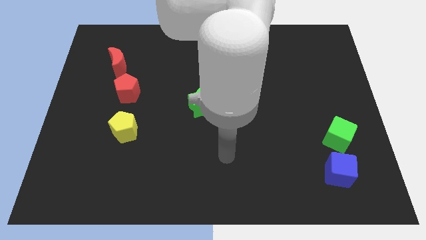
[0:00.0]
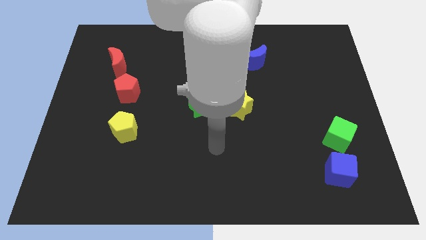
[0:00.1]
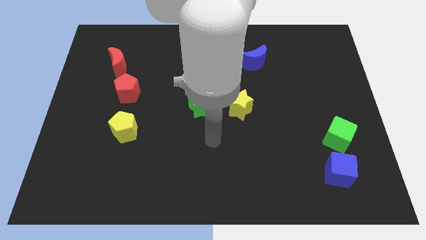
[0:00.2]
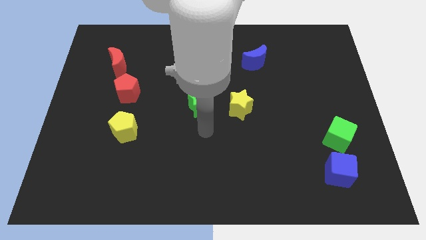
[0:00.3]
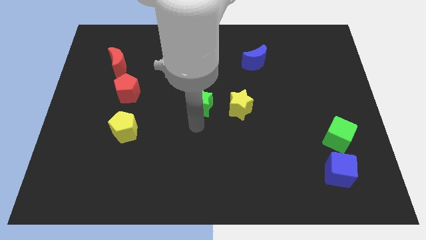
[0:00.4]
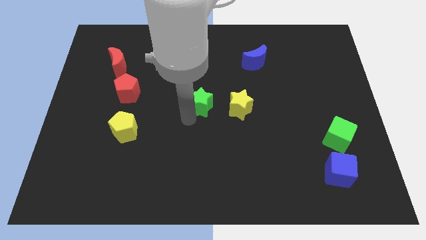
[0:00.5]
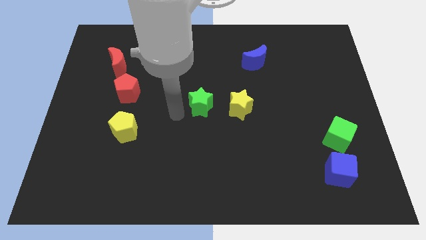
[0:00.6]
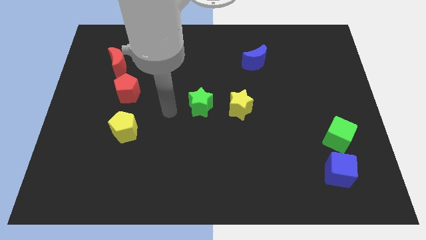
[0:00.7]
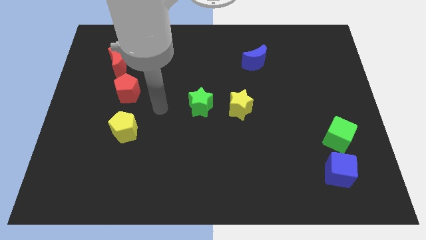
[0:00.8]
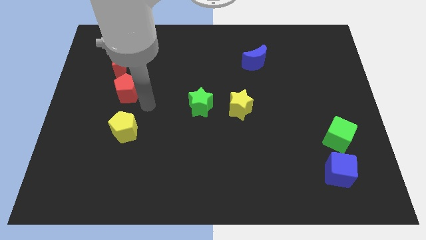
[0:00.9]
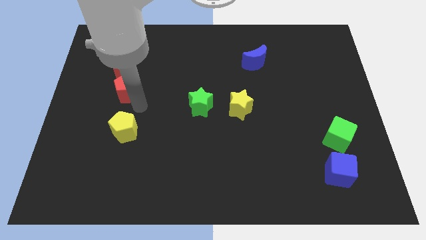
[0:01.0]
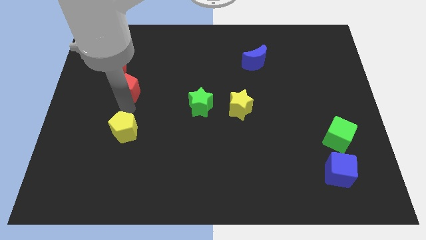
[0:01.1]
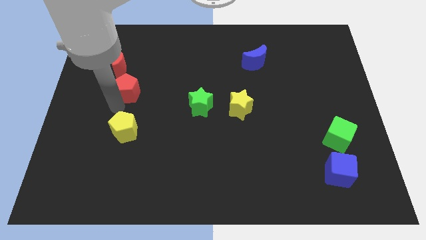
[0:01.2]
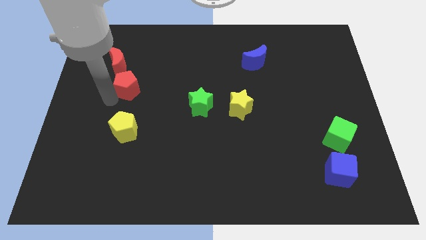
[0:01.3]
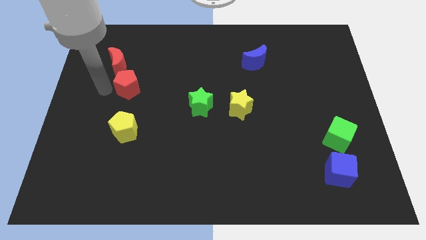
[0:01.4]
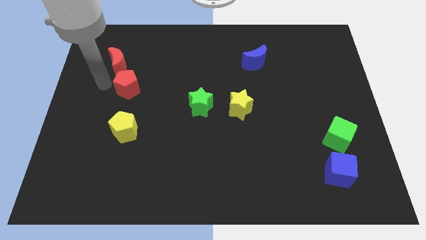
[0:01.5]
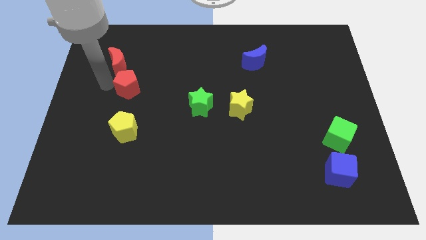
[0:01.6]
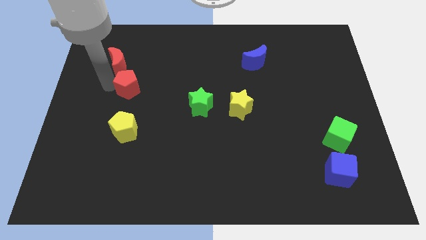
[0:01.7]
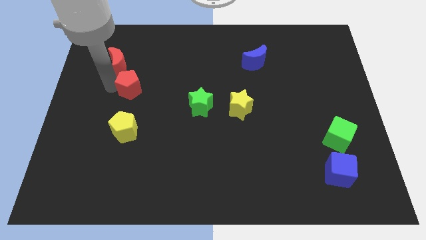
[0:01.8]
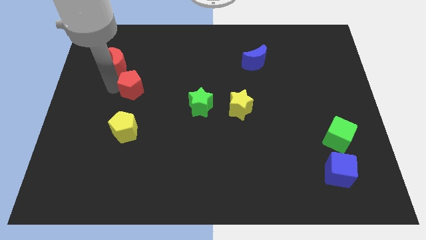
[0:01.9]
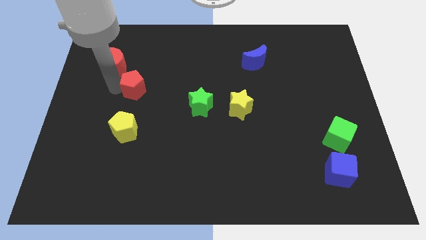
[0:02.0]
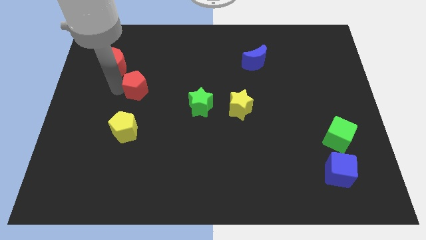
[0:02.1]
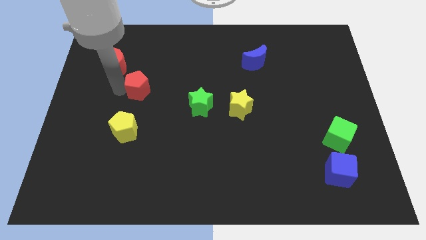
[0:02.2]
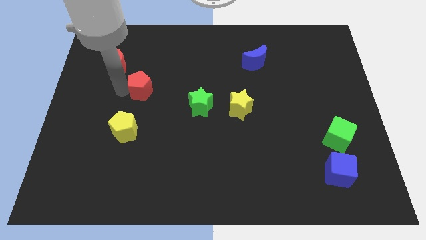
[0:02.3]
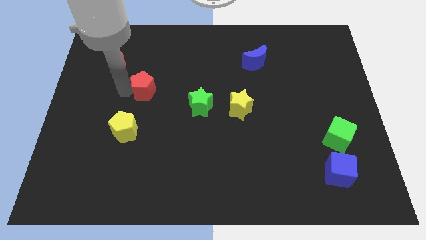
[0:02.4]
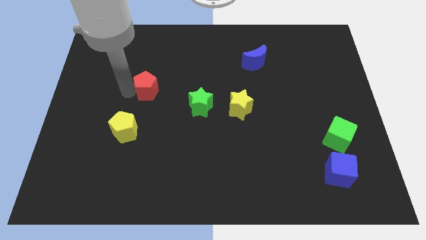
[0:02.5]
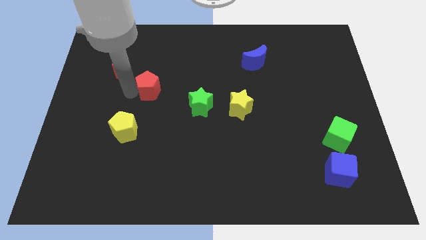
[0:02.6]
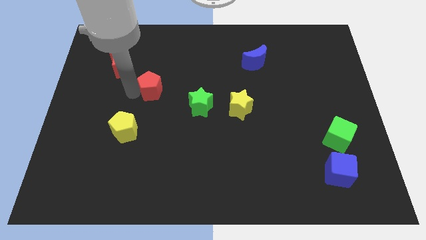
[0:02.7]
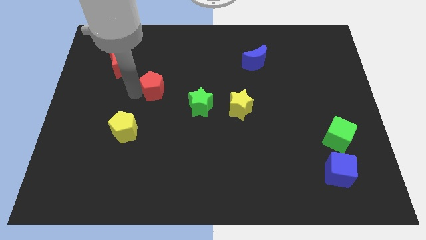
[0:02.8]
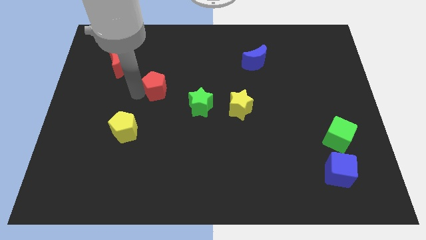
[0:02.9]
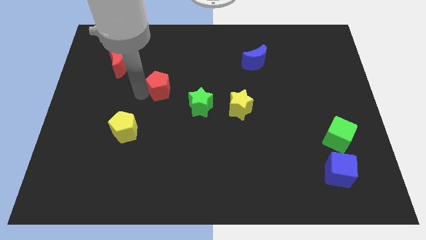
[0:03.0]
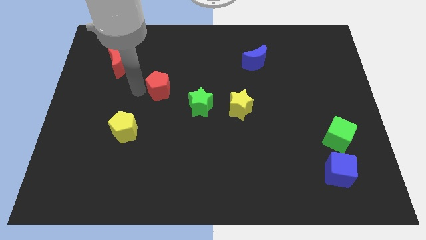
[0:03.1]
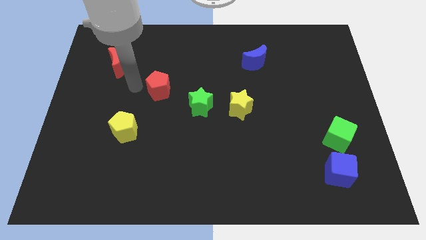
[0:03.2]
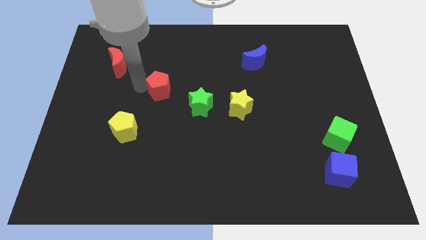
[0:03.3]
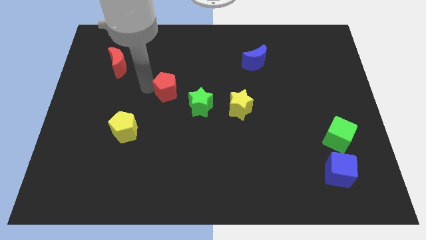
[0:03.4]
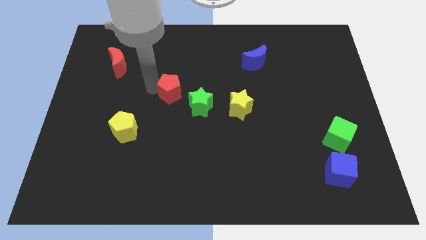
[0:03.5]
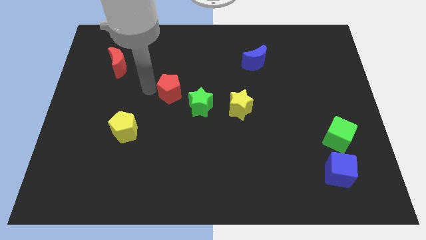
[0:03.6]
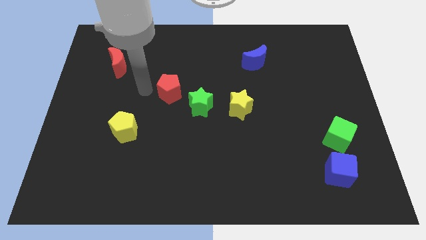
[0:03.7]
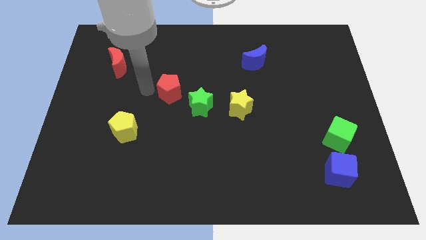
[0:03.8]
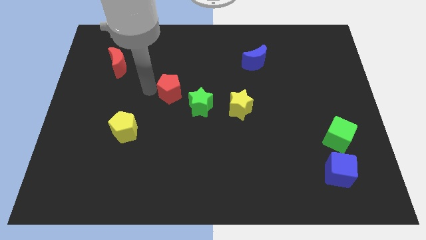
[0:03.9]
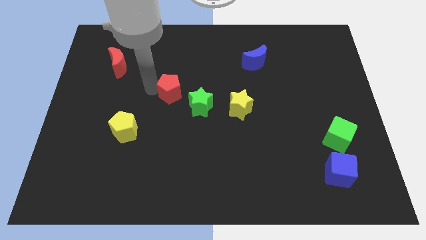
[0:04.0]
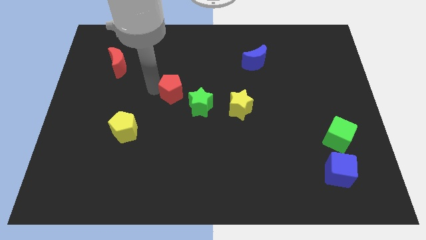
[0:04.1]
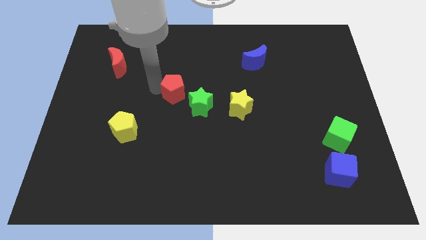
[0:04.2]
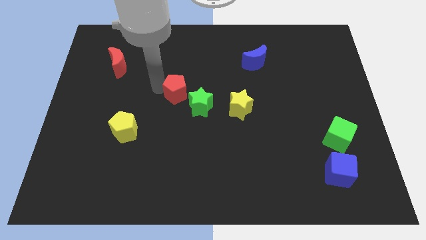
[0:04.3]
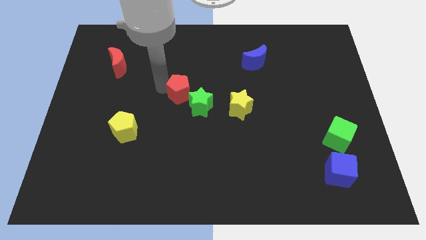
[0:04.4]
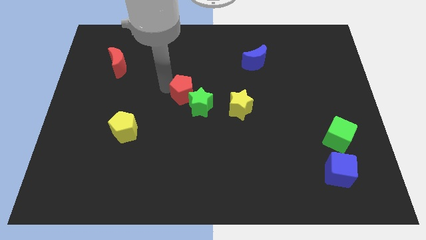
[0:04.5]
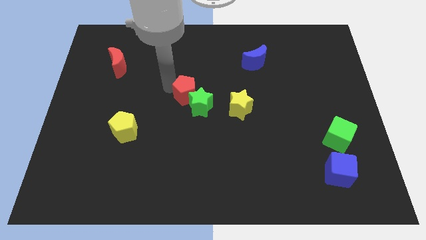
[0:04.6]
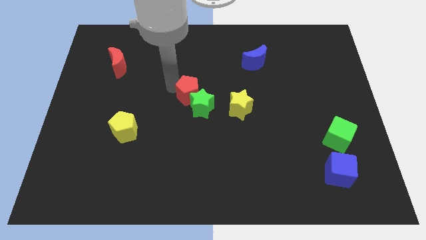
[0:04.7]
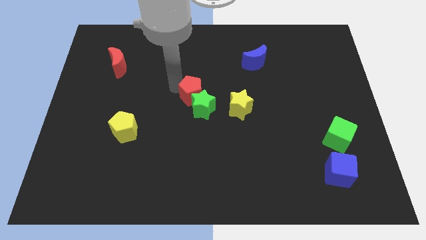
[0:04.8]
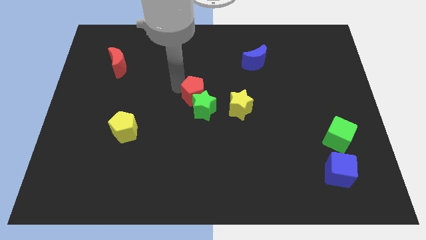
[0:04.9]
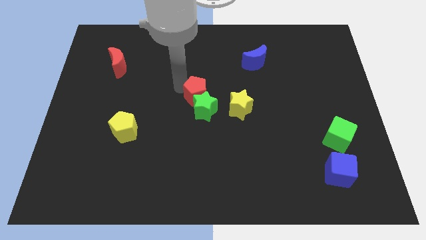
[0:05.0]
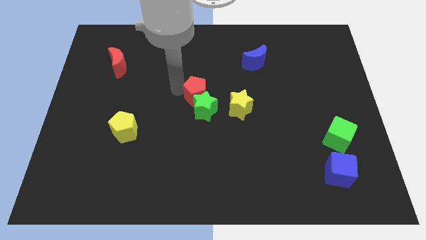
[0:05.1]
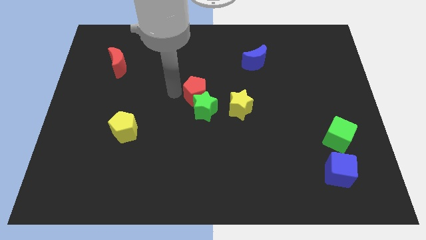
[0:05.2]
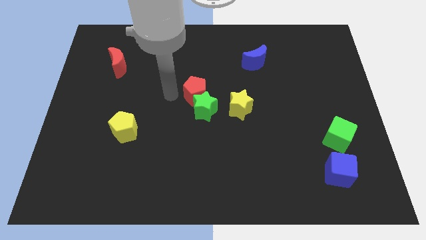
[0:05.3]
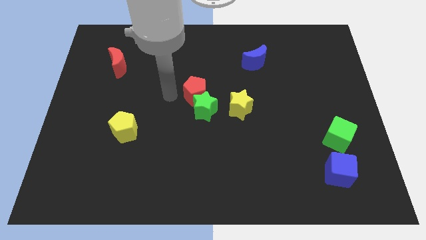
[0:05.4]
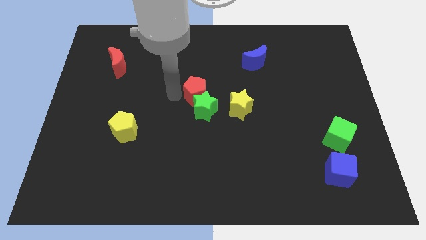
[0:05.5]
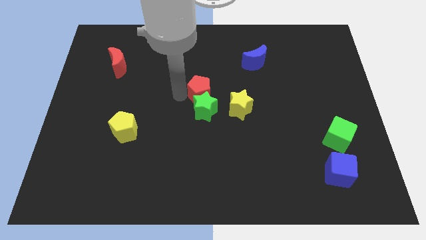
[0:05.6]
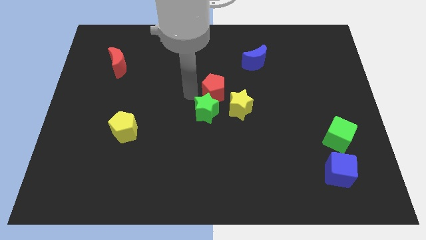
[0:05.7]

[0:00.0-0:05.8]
move the red pentagon right

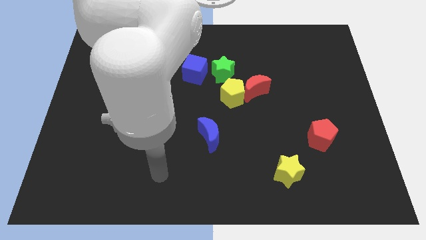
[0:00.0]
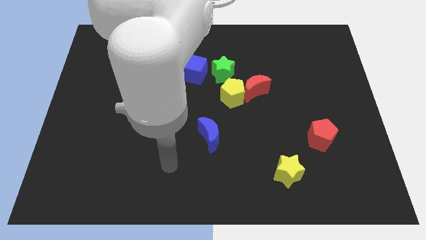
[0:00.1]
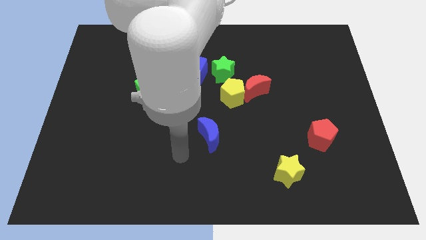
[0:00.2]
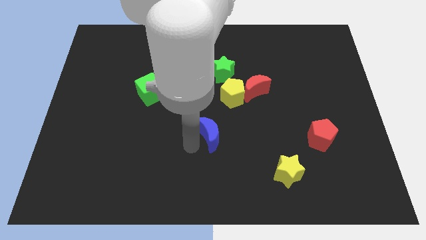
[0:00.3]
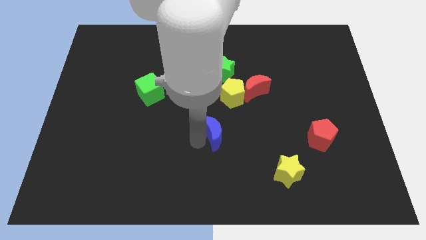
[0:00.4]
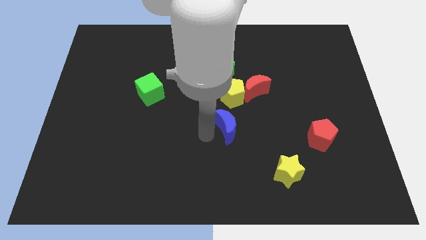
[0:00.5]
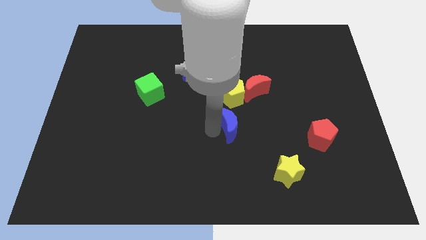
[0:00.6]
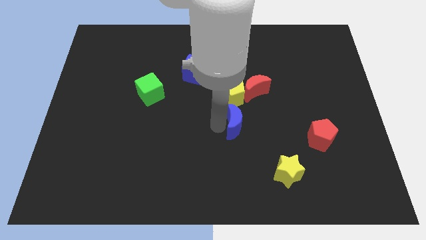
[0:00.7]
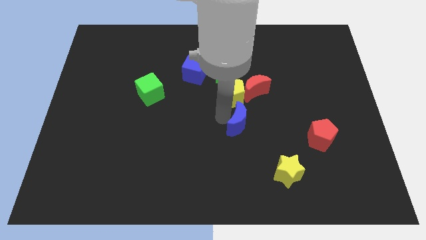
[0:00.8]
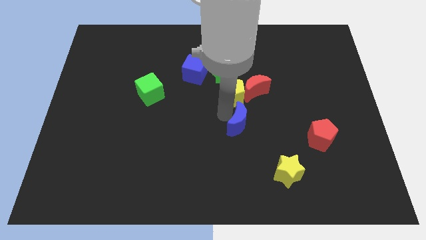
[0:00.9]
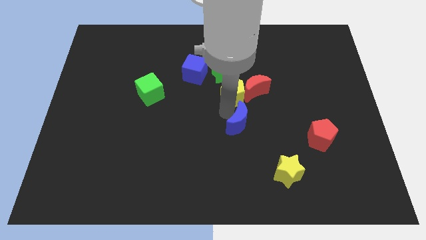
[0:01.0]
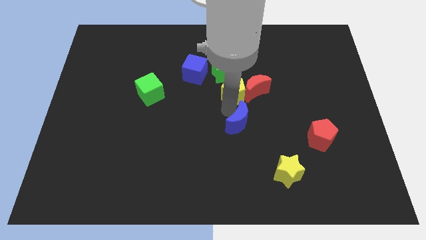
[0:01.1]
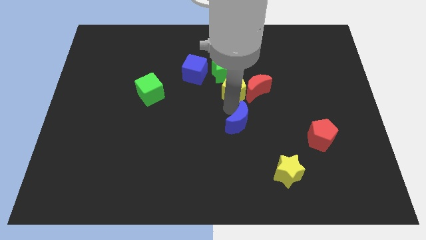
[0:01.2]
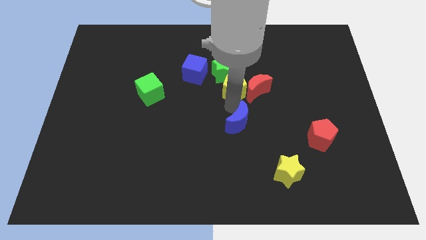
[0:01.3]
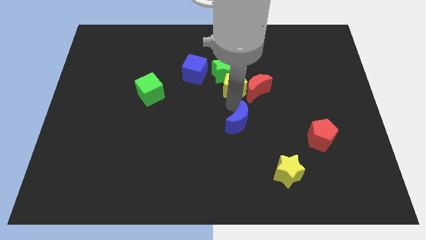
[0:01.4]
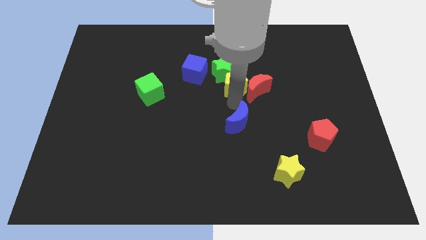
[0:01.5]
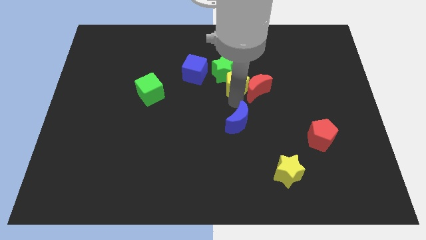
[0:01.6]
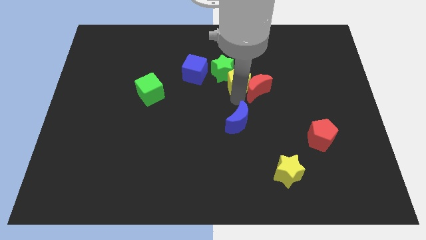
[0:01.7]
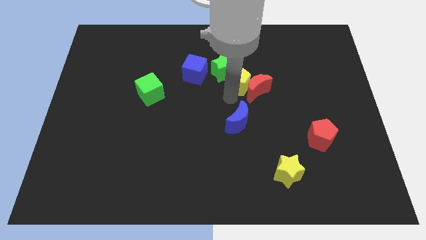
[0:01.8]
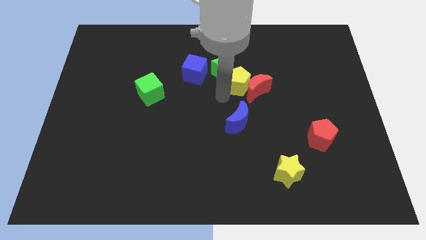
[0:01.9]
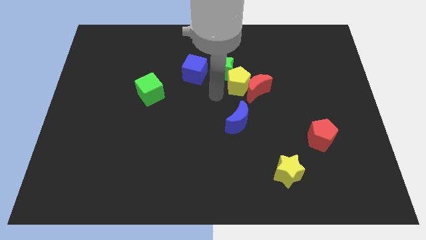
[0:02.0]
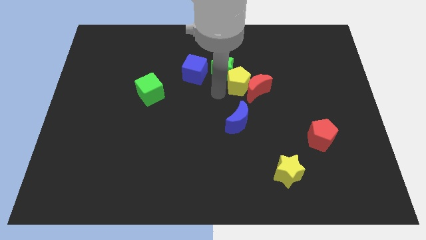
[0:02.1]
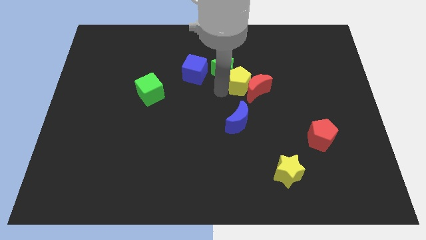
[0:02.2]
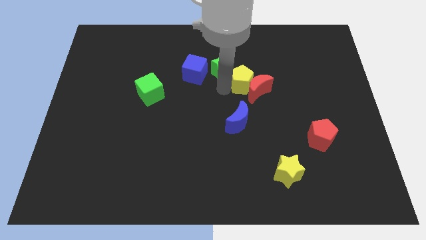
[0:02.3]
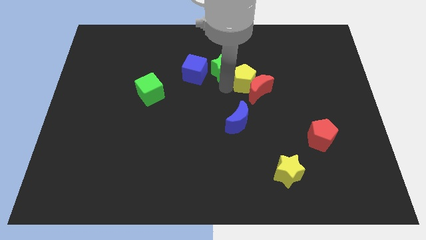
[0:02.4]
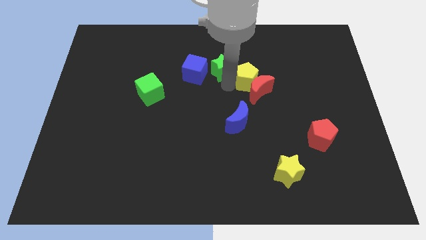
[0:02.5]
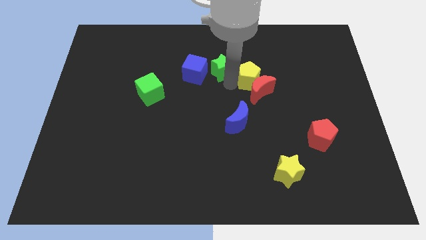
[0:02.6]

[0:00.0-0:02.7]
push the yellow pentagon diagonally upwards and to the right slightly
